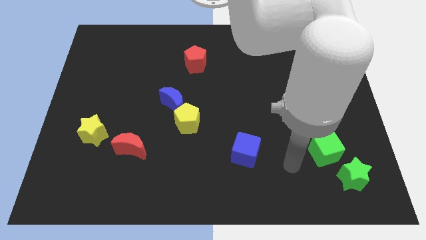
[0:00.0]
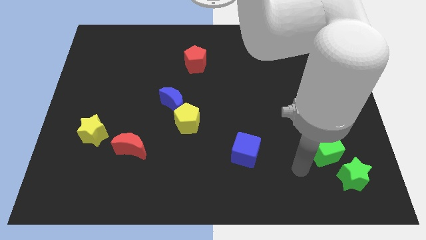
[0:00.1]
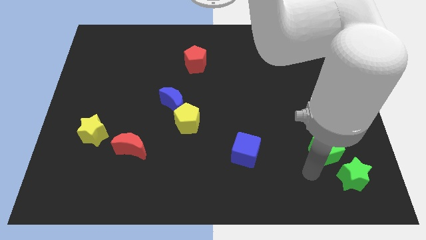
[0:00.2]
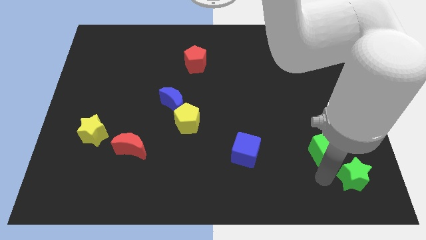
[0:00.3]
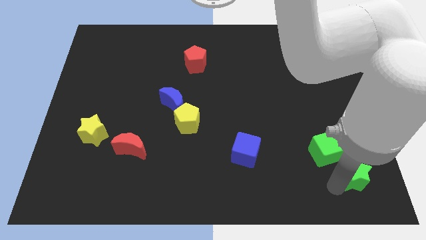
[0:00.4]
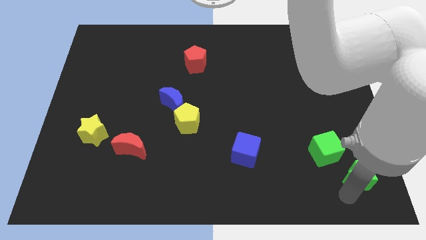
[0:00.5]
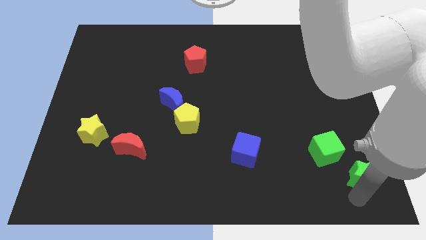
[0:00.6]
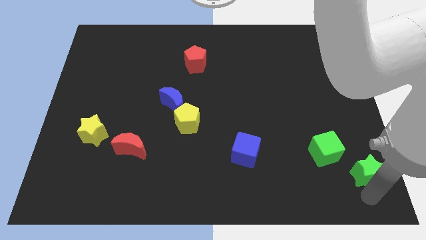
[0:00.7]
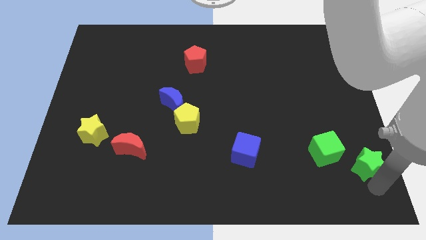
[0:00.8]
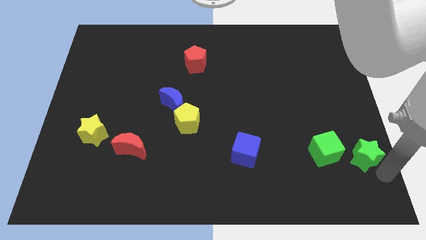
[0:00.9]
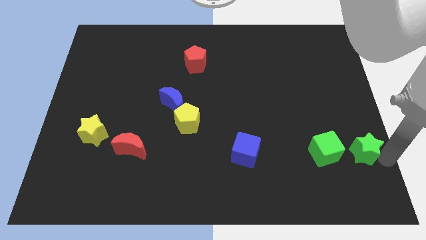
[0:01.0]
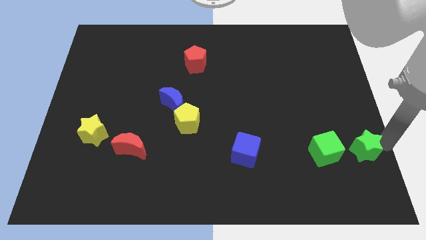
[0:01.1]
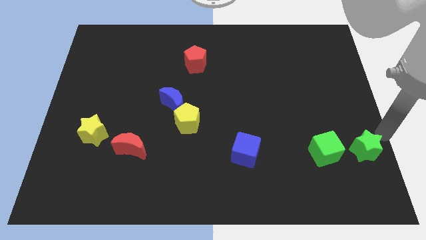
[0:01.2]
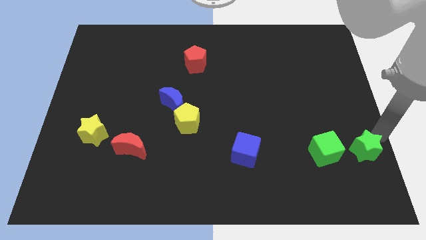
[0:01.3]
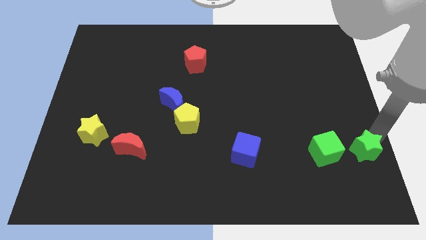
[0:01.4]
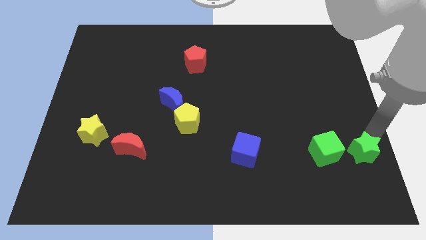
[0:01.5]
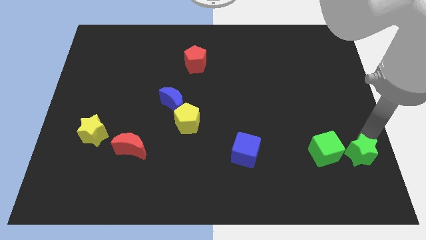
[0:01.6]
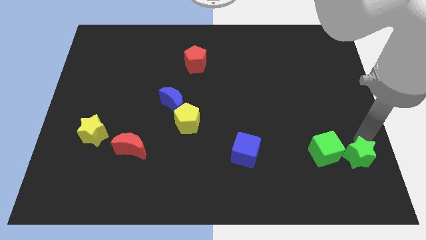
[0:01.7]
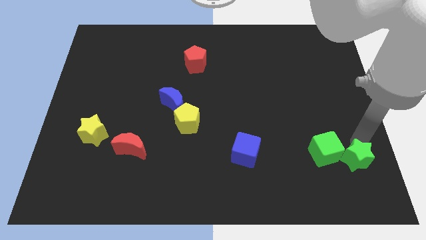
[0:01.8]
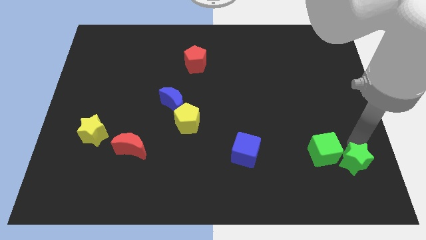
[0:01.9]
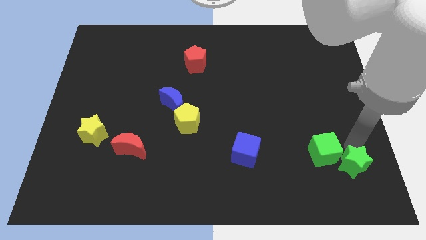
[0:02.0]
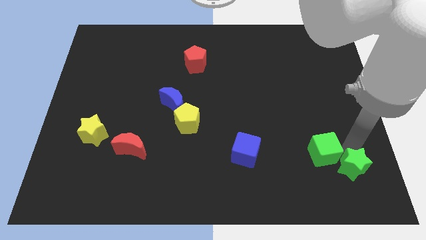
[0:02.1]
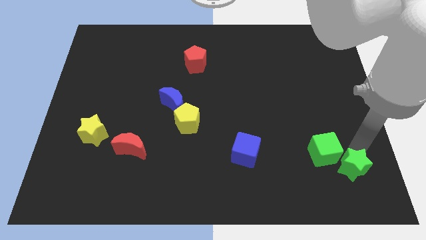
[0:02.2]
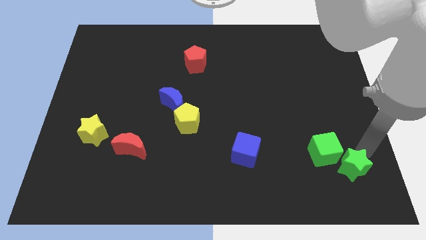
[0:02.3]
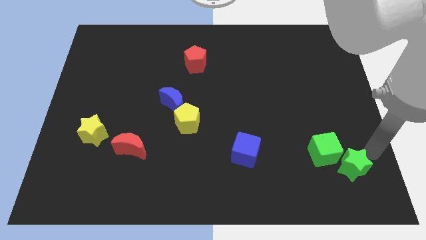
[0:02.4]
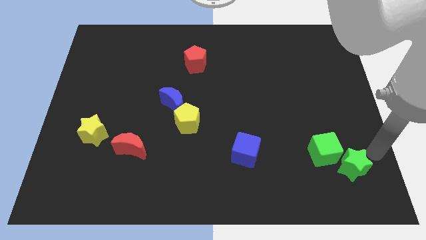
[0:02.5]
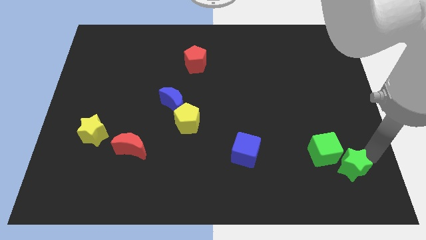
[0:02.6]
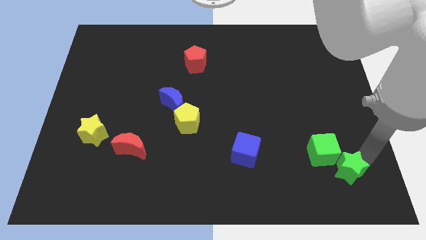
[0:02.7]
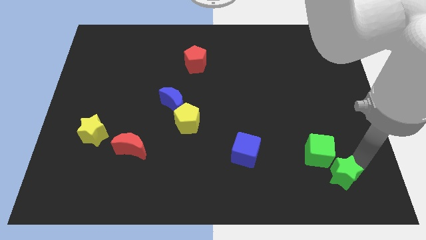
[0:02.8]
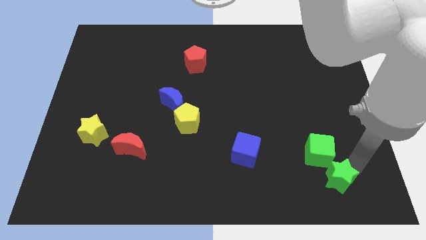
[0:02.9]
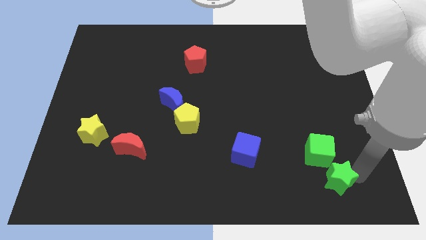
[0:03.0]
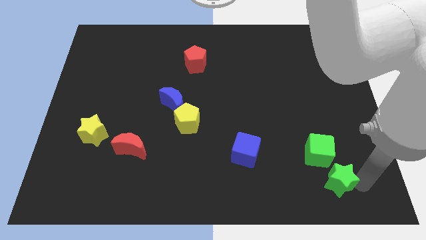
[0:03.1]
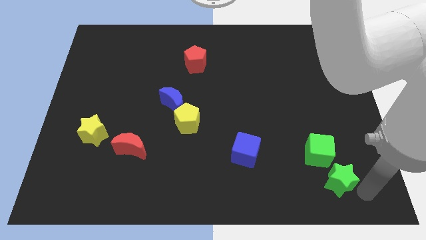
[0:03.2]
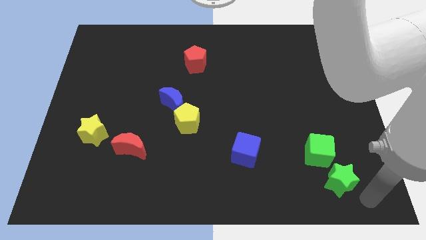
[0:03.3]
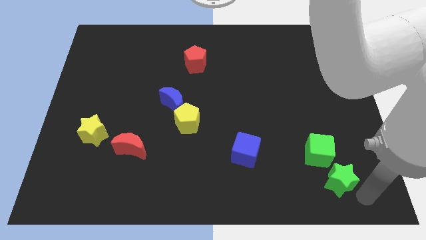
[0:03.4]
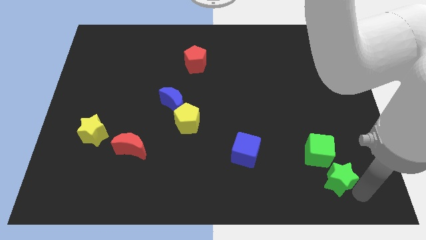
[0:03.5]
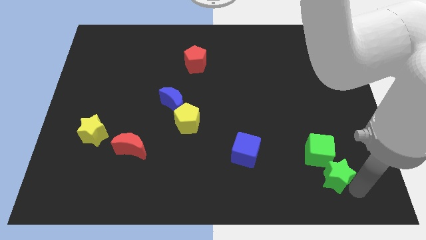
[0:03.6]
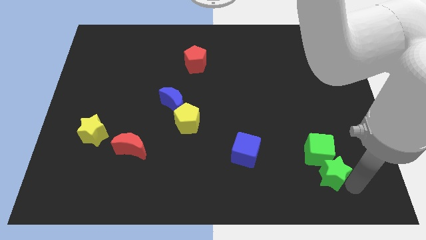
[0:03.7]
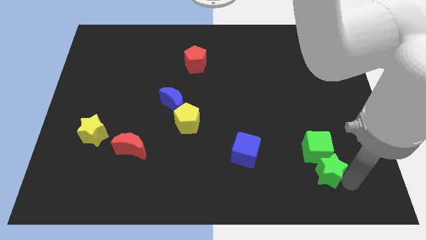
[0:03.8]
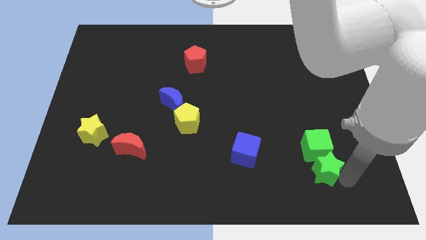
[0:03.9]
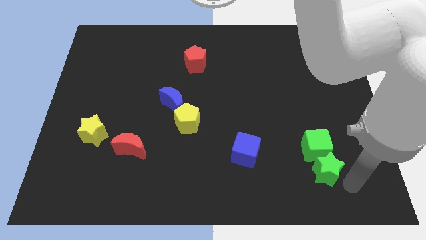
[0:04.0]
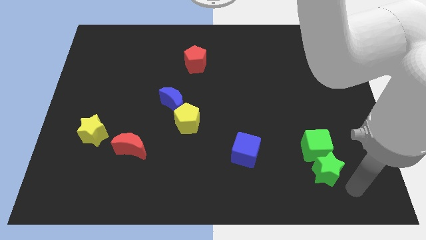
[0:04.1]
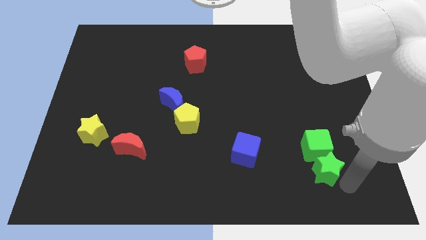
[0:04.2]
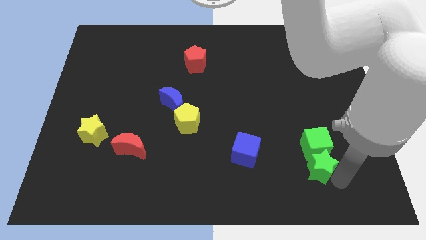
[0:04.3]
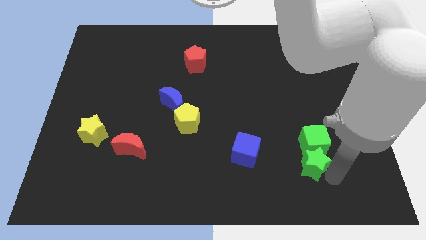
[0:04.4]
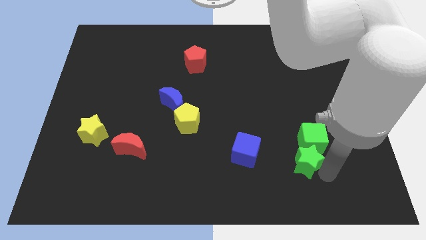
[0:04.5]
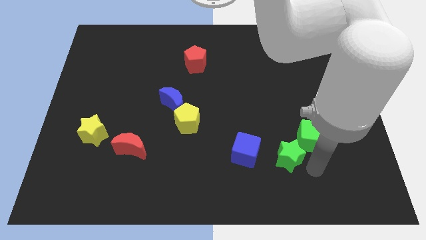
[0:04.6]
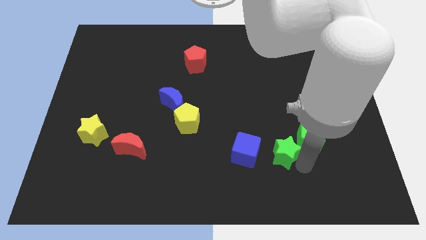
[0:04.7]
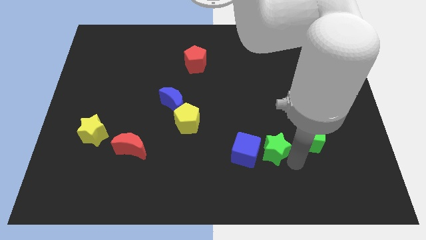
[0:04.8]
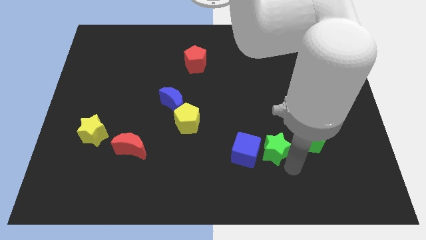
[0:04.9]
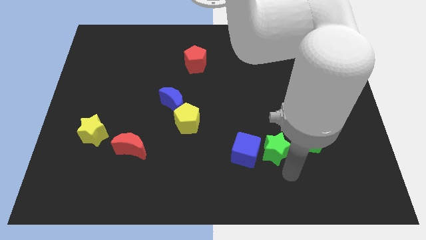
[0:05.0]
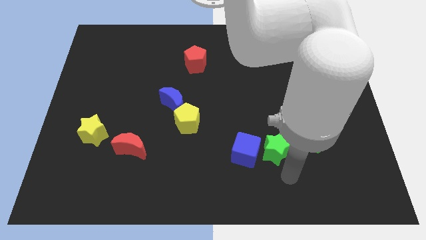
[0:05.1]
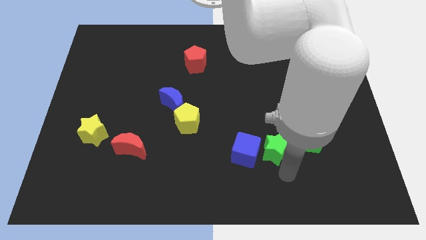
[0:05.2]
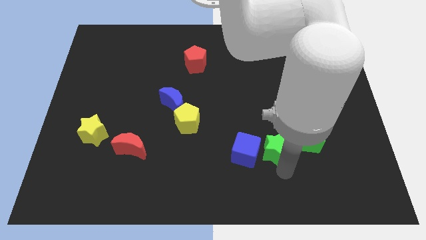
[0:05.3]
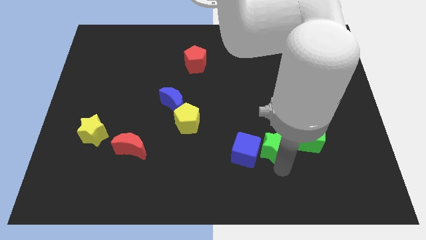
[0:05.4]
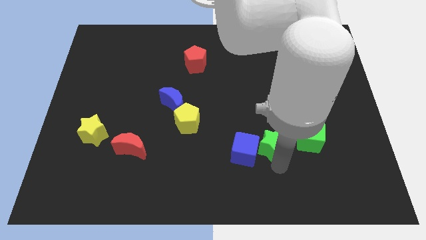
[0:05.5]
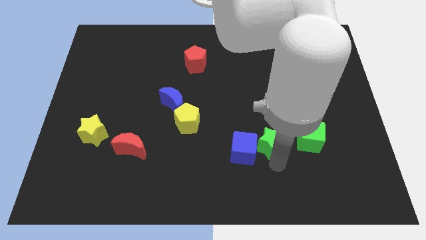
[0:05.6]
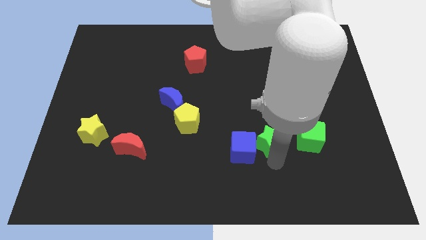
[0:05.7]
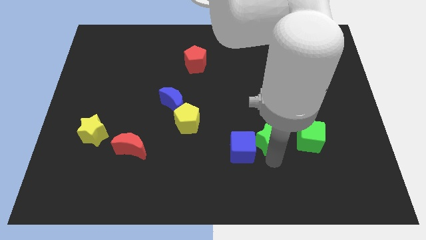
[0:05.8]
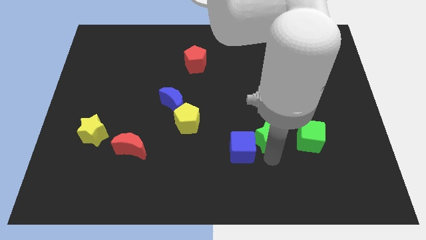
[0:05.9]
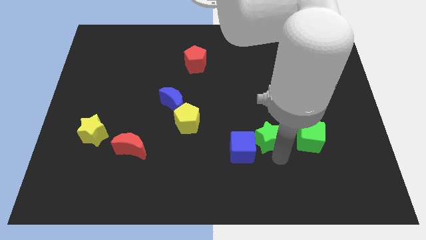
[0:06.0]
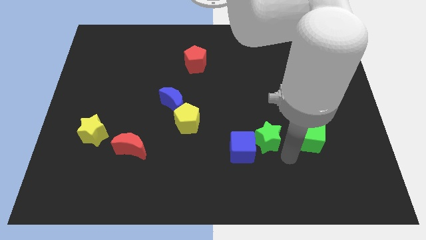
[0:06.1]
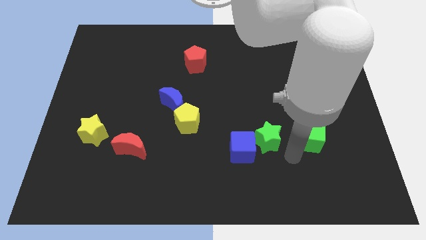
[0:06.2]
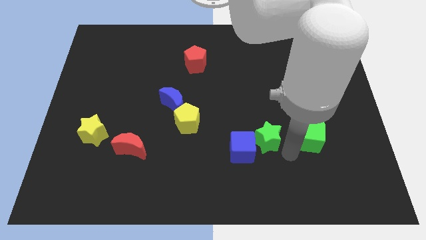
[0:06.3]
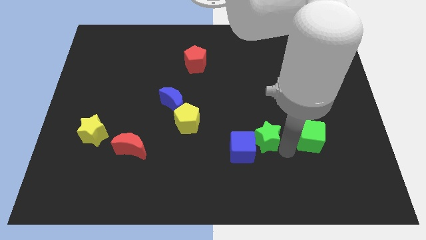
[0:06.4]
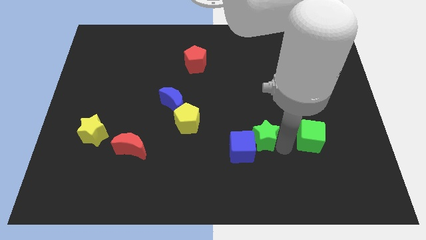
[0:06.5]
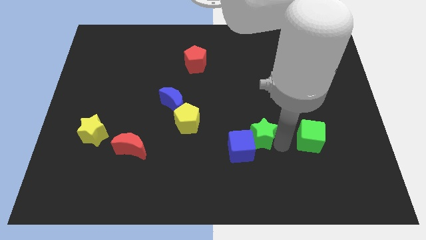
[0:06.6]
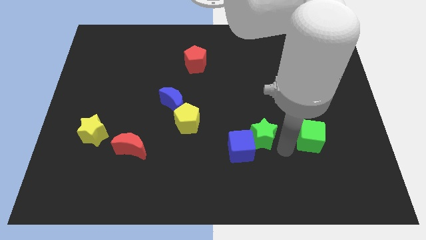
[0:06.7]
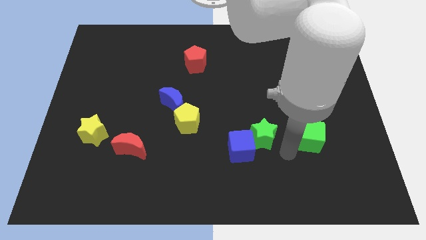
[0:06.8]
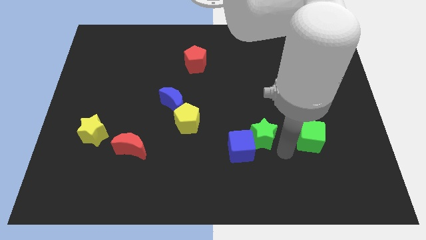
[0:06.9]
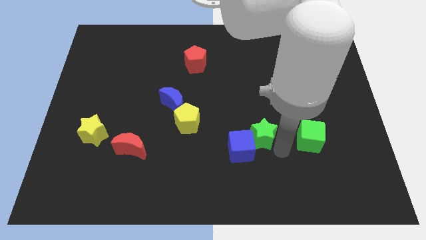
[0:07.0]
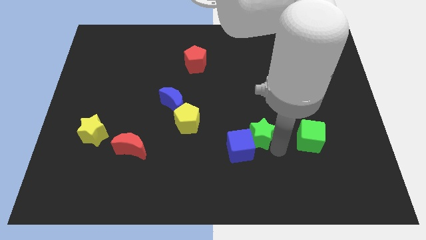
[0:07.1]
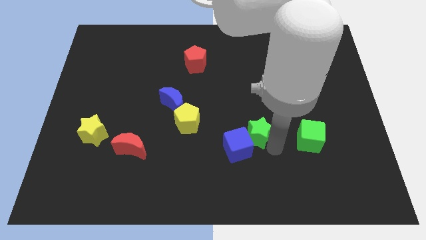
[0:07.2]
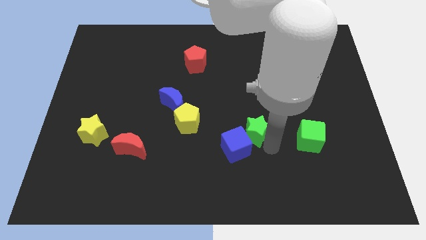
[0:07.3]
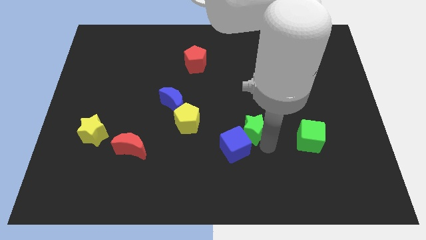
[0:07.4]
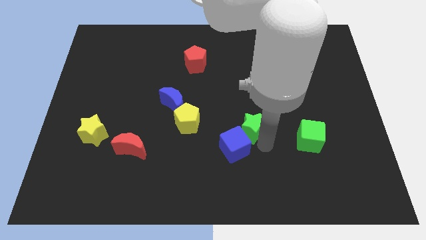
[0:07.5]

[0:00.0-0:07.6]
slide the green star to the middle

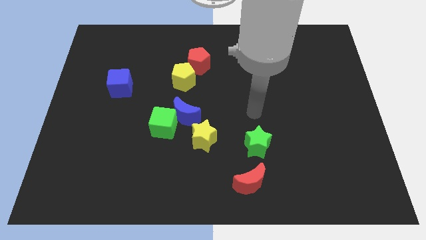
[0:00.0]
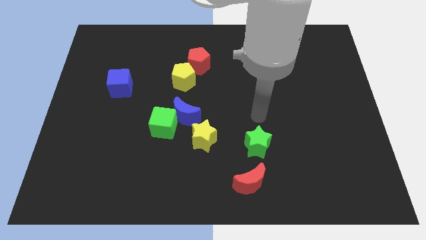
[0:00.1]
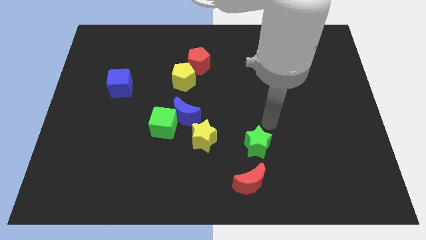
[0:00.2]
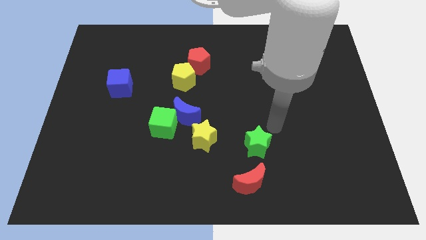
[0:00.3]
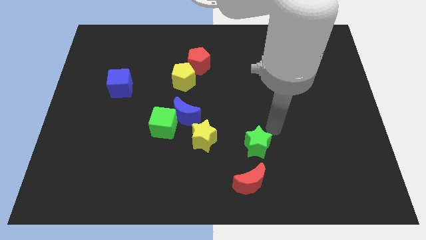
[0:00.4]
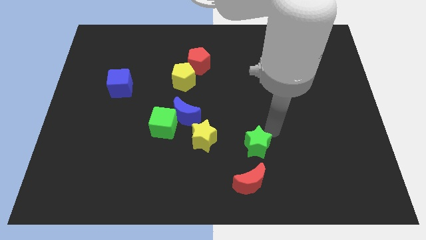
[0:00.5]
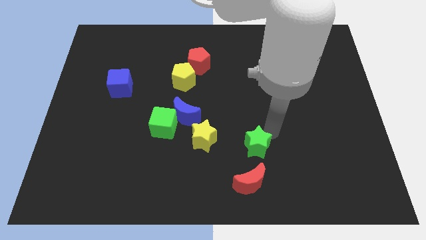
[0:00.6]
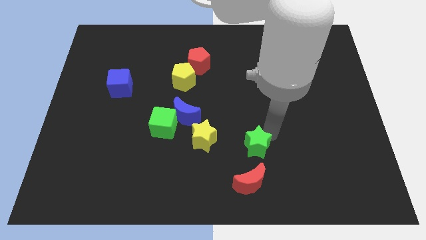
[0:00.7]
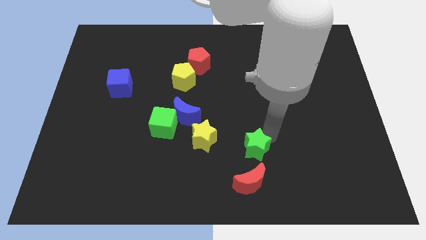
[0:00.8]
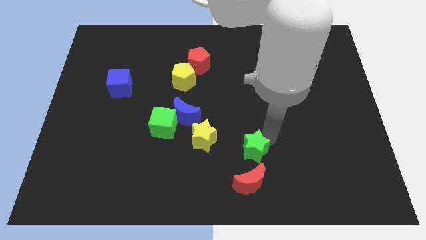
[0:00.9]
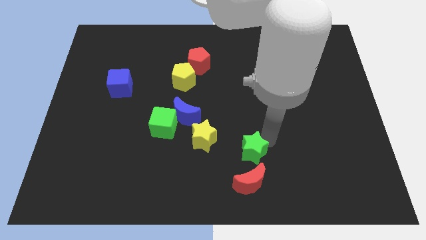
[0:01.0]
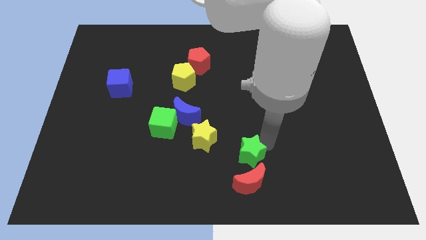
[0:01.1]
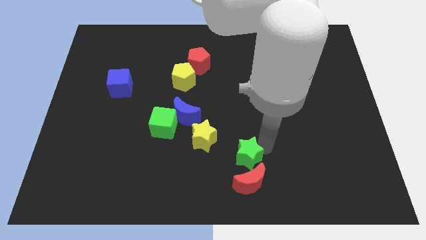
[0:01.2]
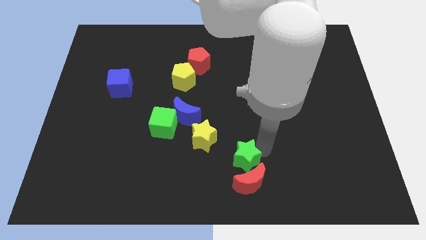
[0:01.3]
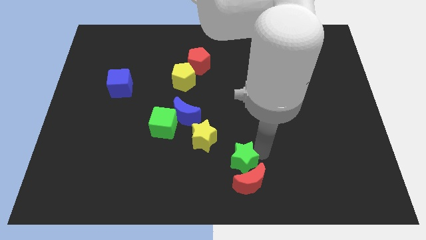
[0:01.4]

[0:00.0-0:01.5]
push the green star to the bottom
